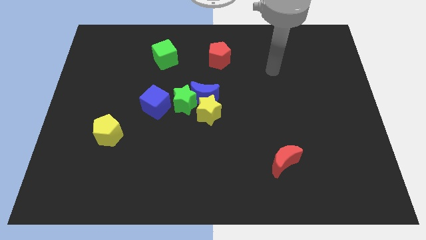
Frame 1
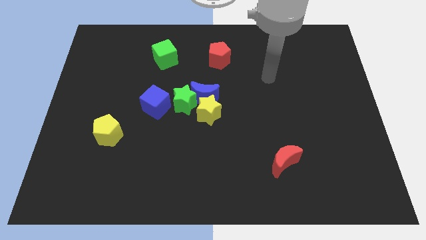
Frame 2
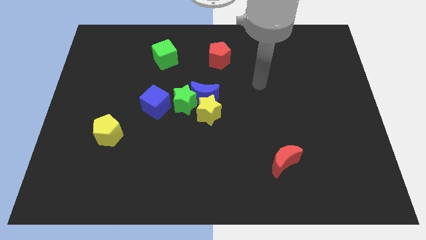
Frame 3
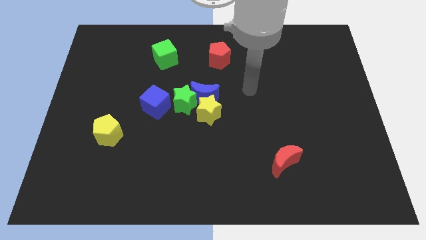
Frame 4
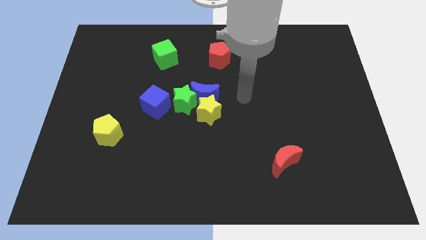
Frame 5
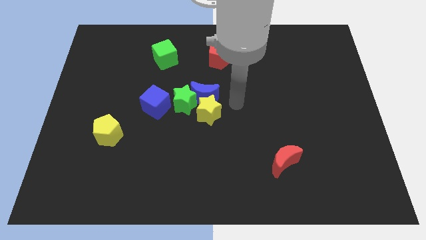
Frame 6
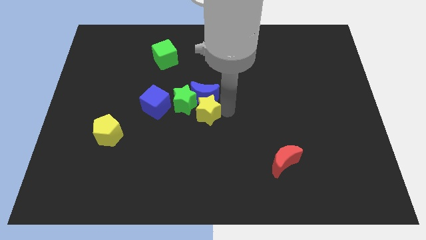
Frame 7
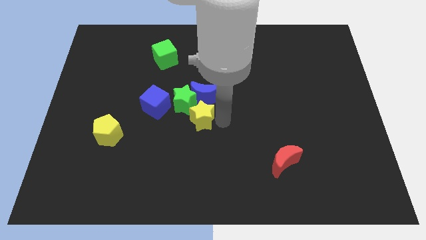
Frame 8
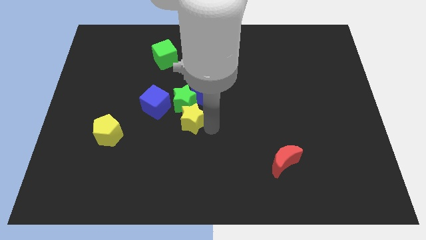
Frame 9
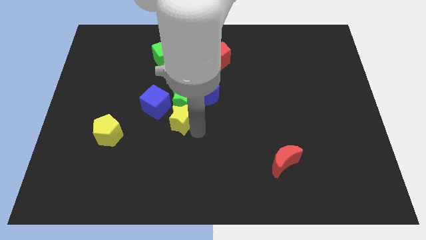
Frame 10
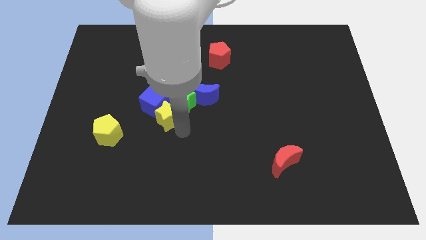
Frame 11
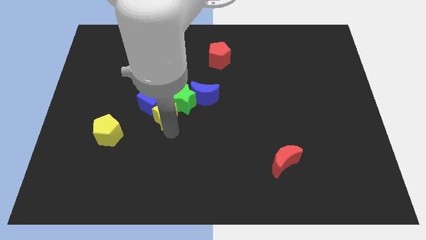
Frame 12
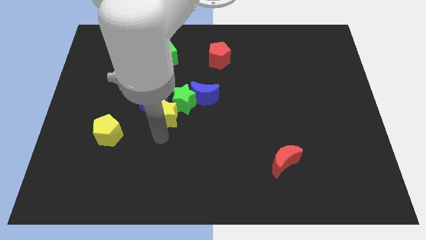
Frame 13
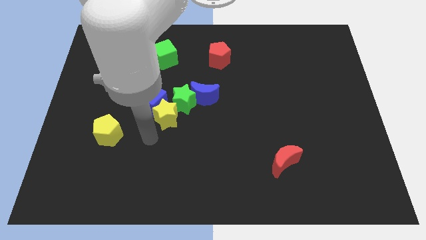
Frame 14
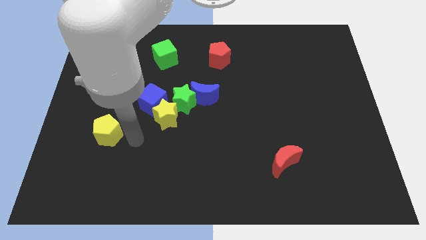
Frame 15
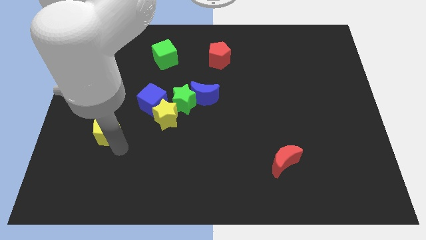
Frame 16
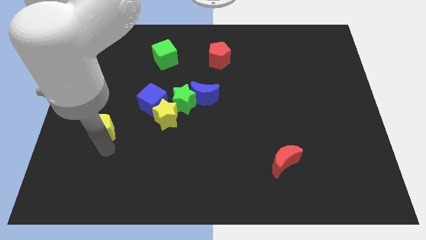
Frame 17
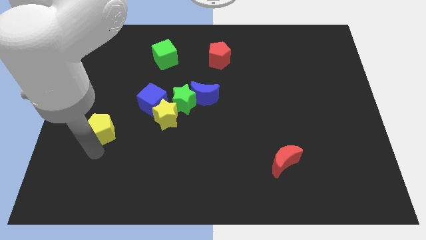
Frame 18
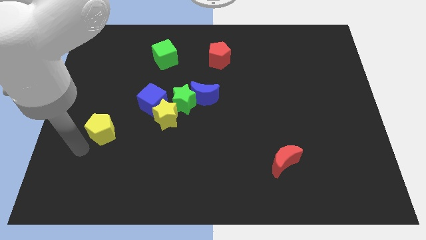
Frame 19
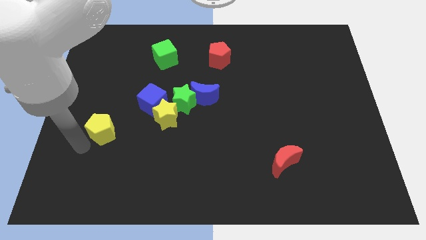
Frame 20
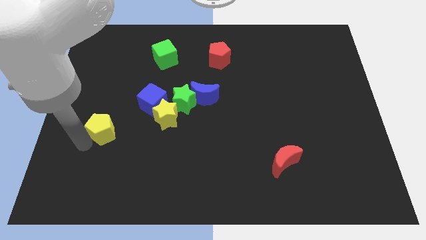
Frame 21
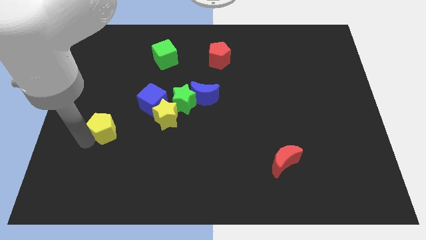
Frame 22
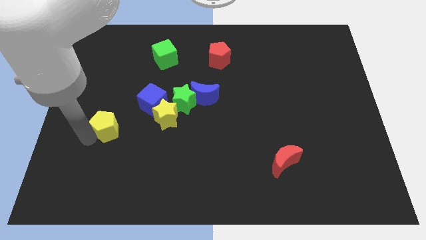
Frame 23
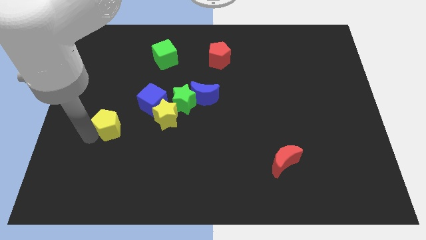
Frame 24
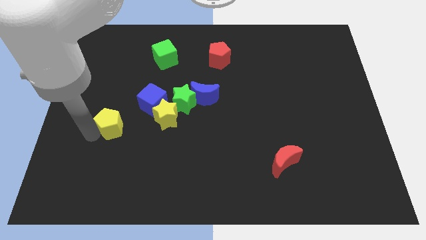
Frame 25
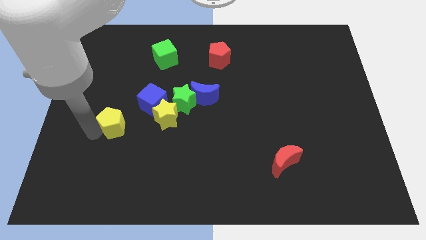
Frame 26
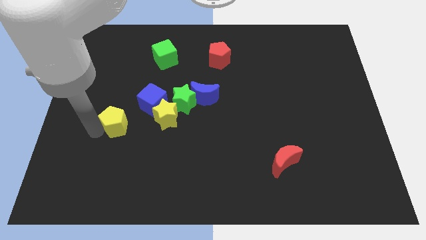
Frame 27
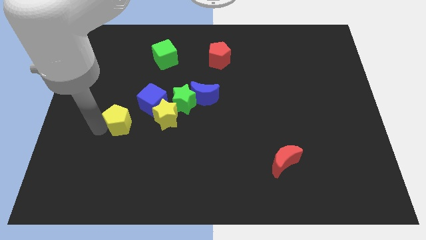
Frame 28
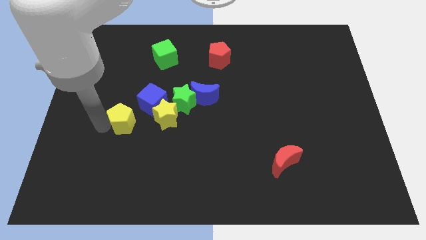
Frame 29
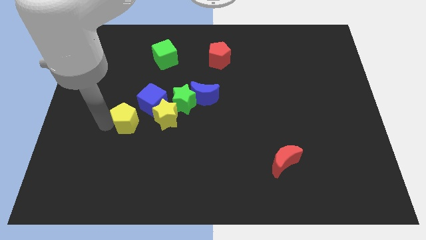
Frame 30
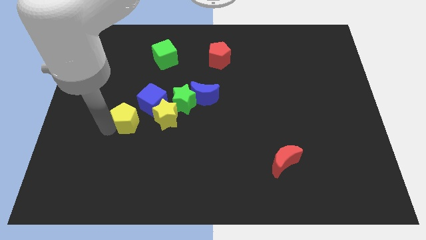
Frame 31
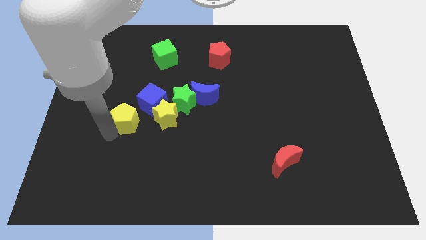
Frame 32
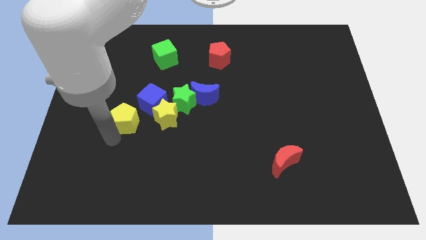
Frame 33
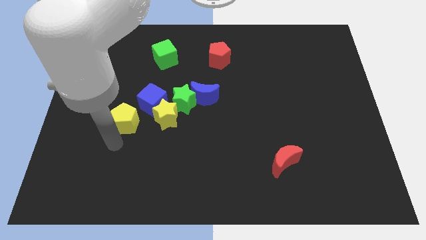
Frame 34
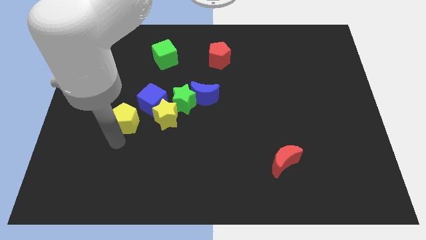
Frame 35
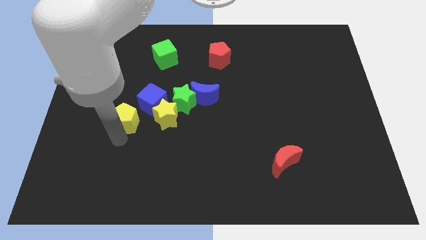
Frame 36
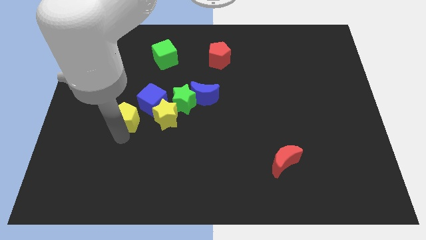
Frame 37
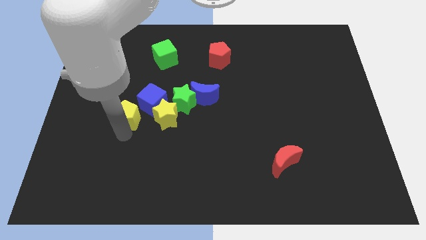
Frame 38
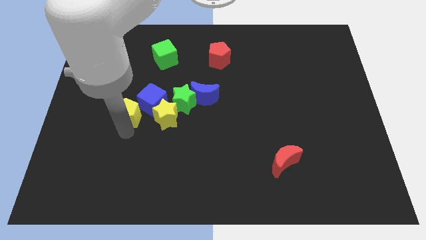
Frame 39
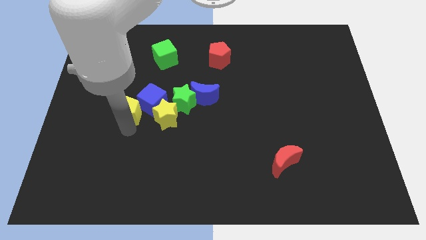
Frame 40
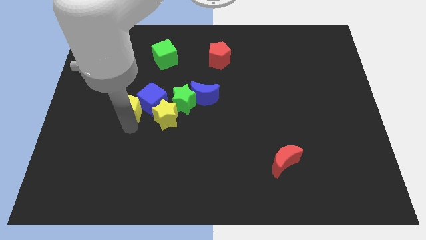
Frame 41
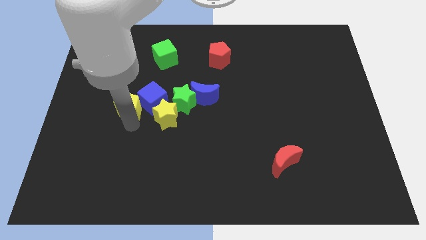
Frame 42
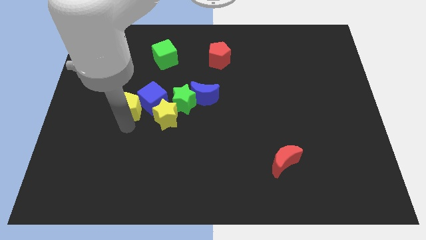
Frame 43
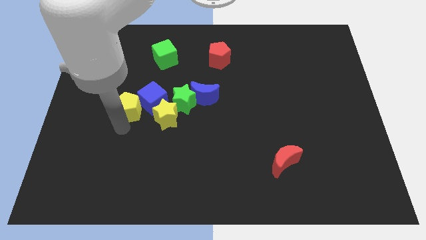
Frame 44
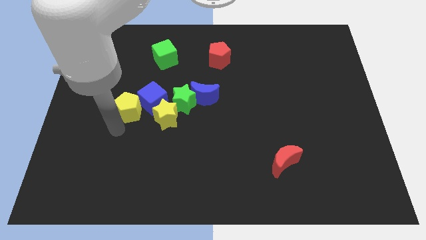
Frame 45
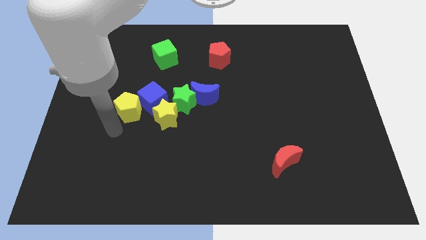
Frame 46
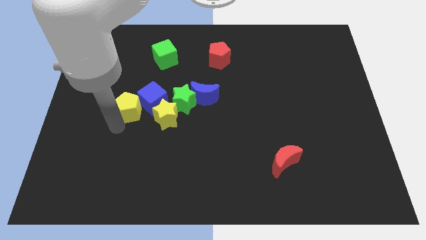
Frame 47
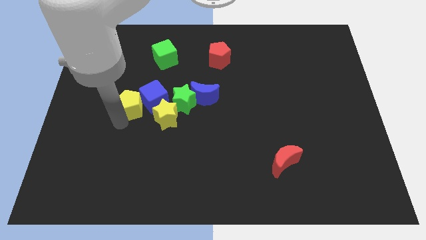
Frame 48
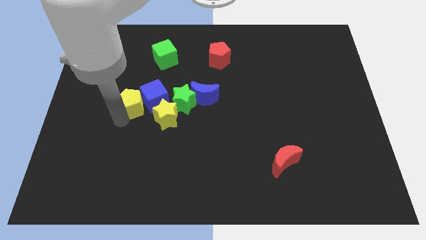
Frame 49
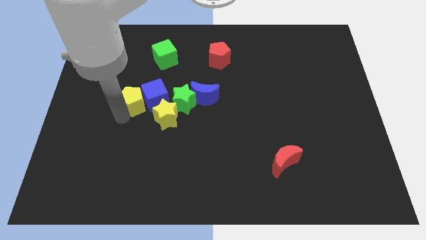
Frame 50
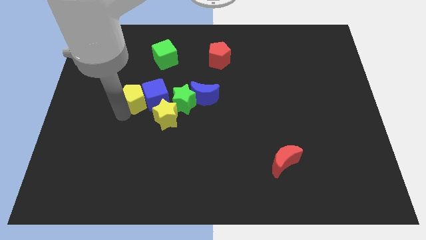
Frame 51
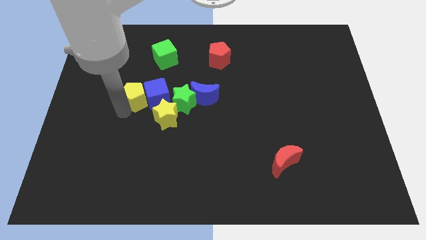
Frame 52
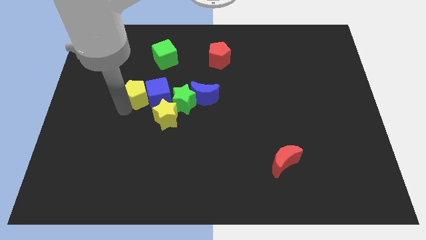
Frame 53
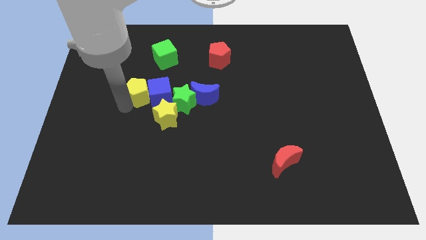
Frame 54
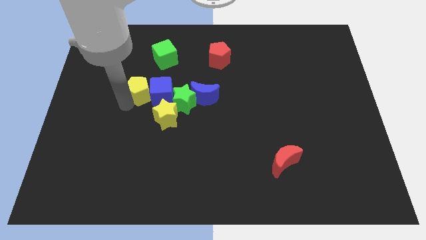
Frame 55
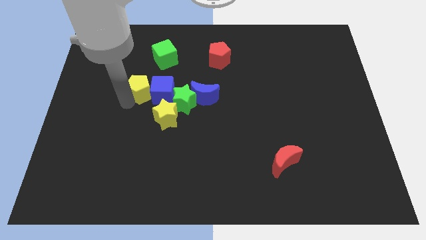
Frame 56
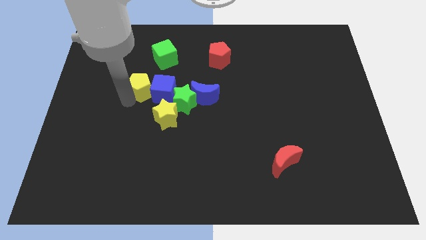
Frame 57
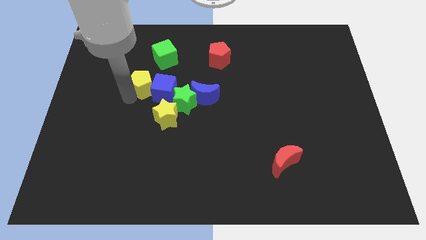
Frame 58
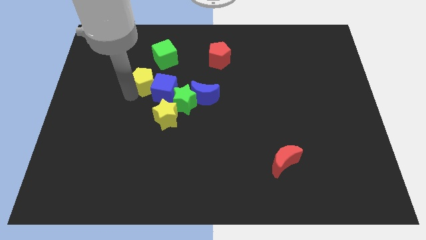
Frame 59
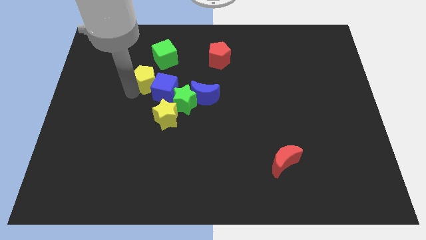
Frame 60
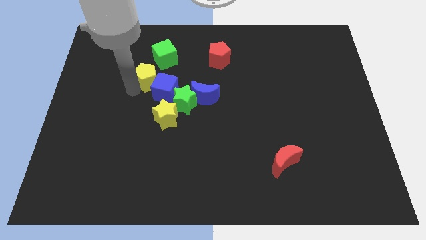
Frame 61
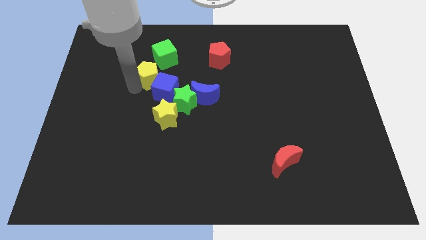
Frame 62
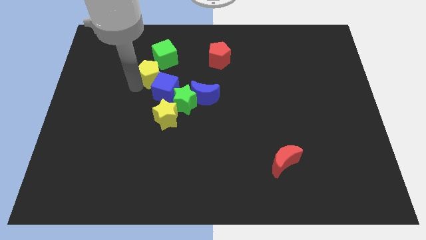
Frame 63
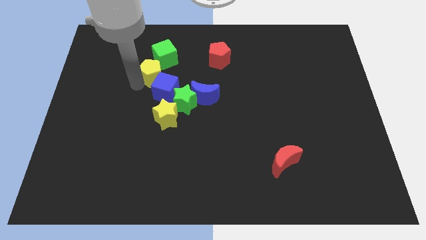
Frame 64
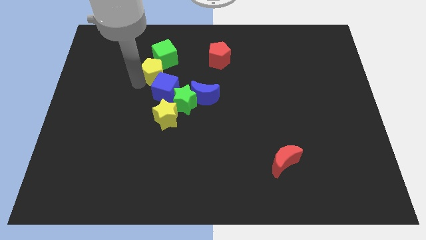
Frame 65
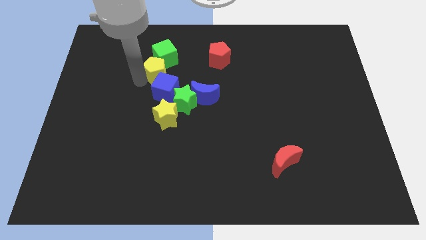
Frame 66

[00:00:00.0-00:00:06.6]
put the yellow pentagon to the green cube

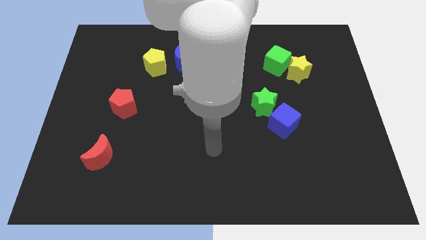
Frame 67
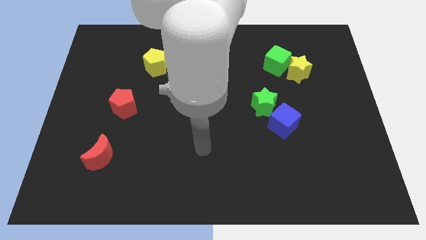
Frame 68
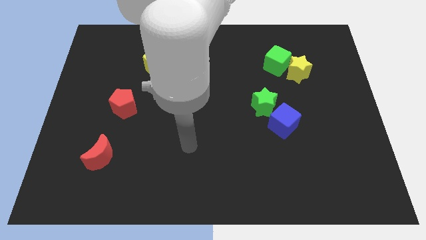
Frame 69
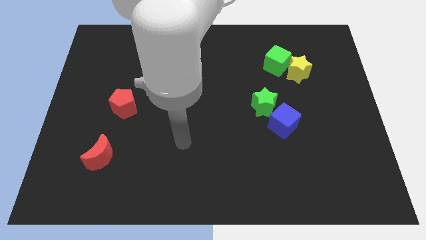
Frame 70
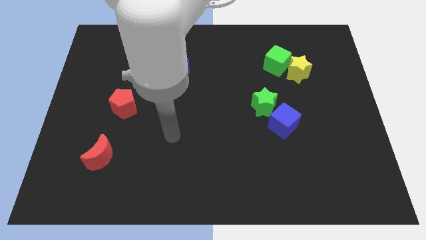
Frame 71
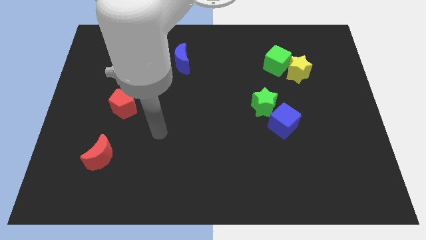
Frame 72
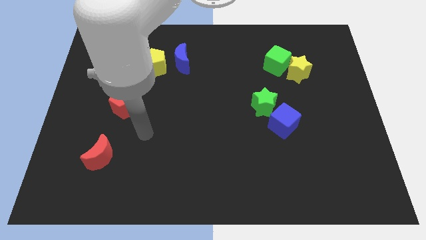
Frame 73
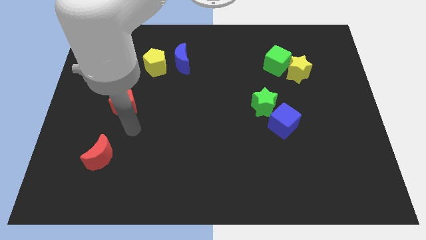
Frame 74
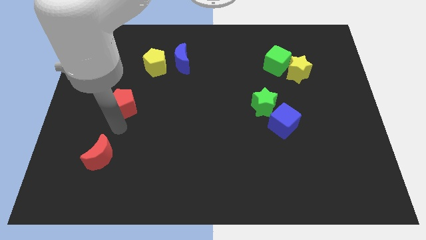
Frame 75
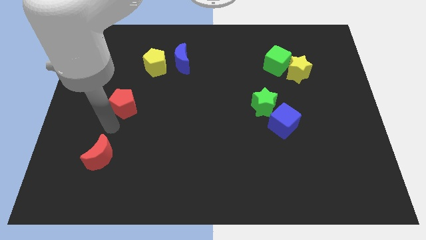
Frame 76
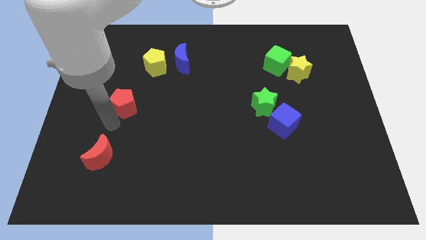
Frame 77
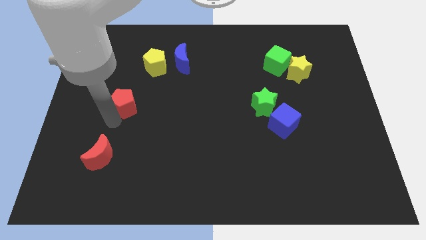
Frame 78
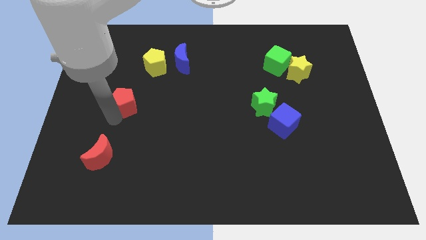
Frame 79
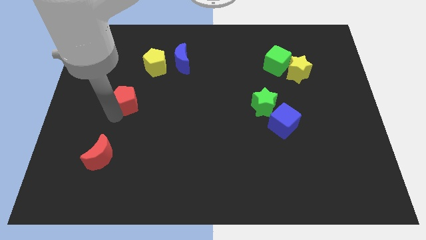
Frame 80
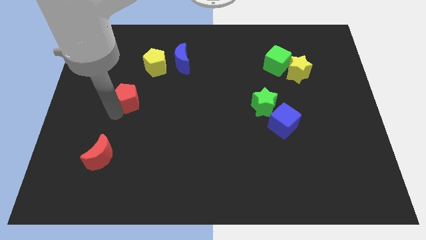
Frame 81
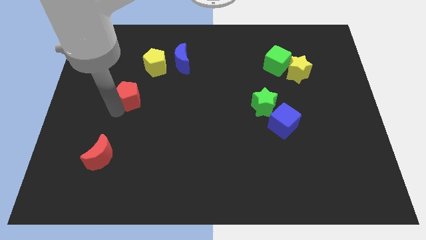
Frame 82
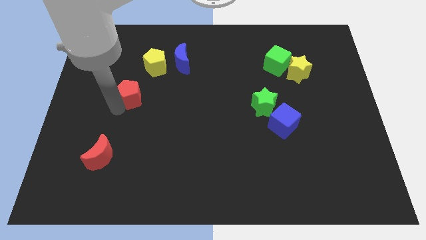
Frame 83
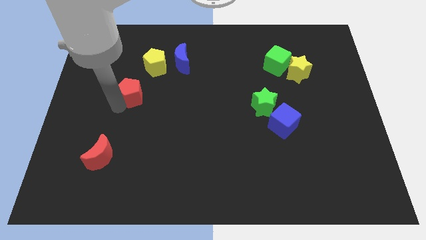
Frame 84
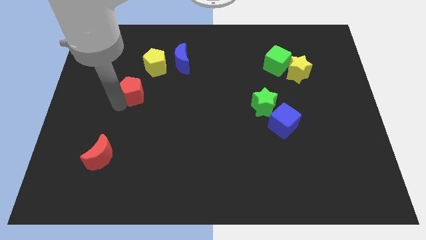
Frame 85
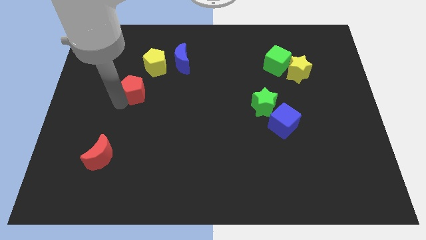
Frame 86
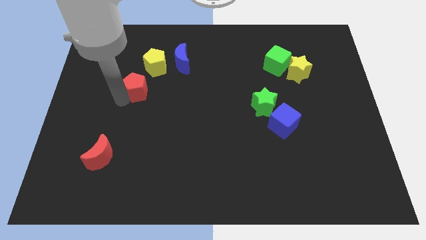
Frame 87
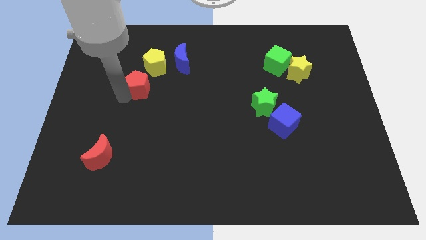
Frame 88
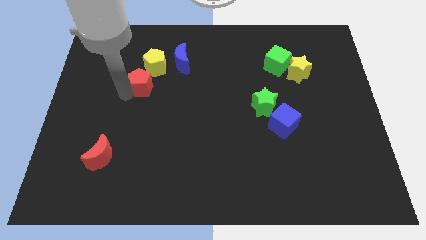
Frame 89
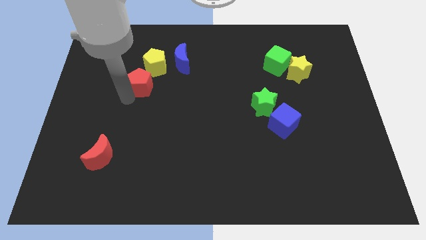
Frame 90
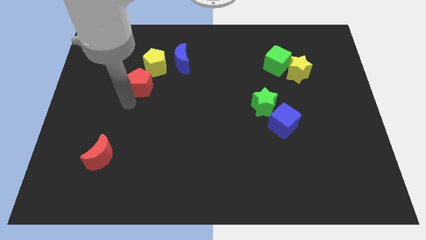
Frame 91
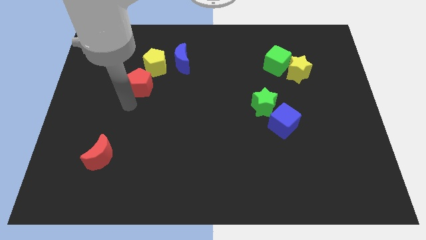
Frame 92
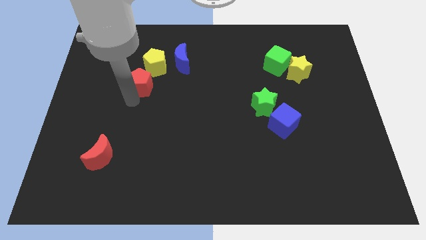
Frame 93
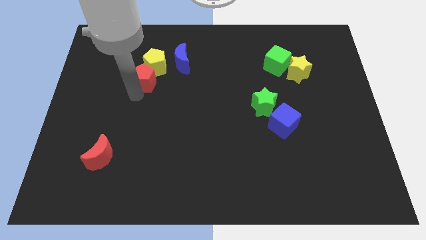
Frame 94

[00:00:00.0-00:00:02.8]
push the red pentagon close to the yellow pentagon
